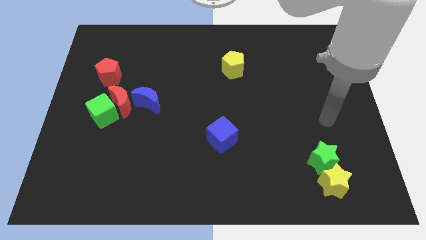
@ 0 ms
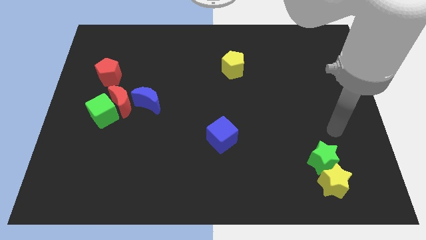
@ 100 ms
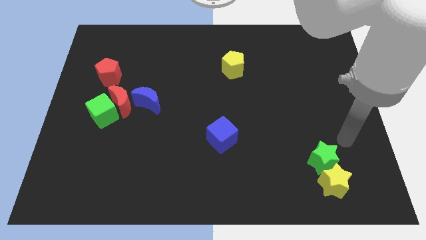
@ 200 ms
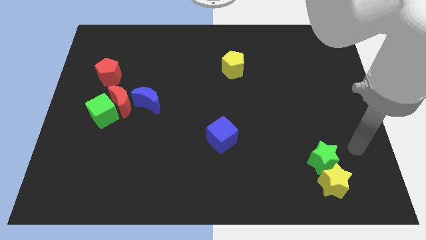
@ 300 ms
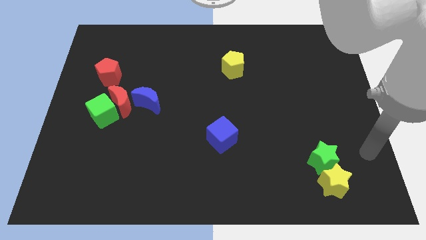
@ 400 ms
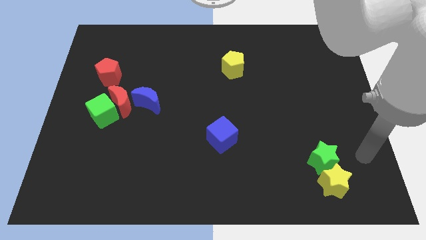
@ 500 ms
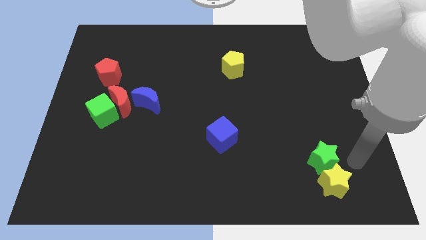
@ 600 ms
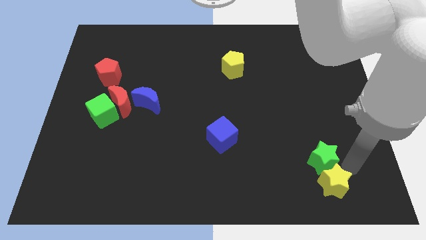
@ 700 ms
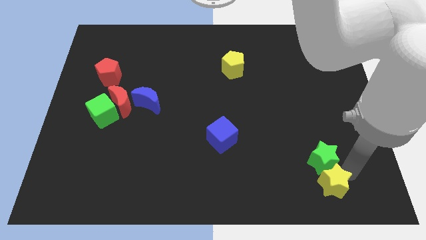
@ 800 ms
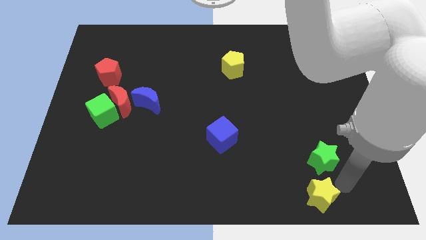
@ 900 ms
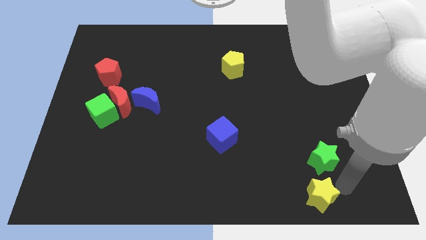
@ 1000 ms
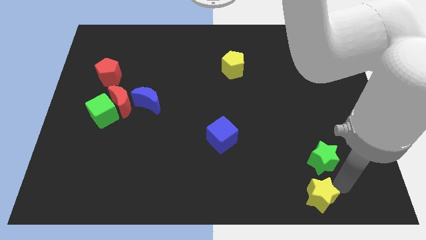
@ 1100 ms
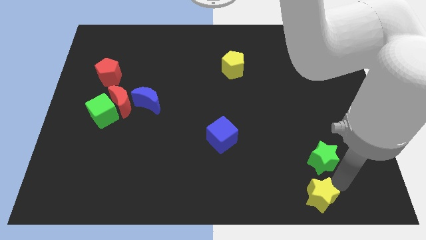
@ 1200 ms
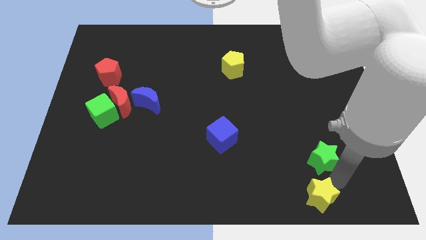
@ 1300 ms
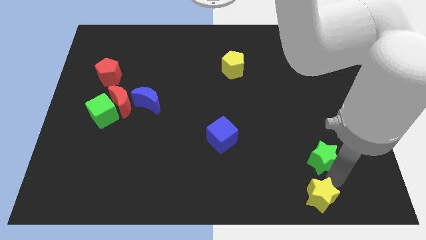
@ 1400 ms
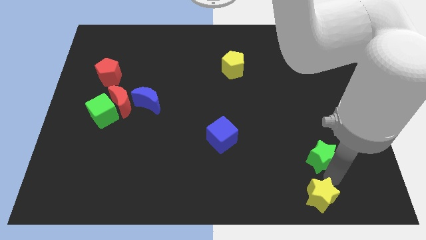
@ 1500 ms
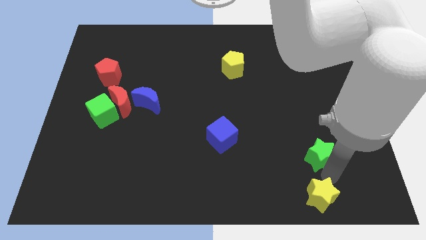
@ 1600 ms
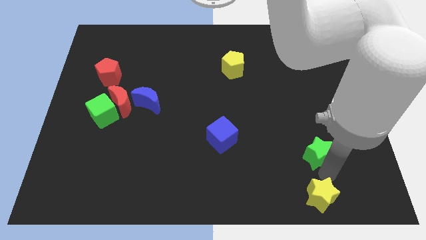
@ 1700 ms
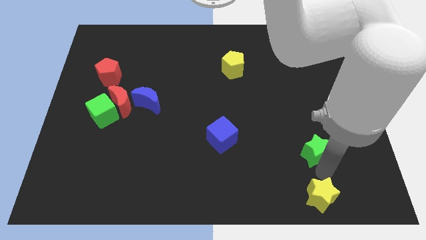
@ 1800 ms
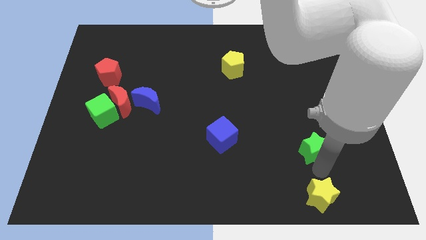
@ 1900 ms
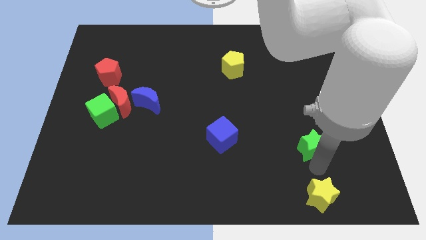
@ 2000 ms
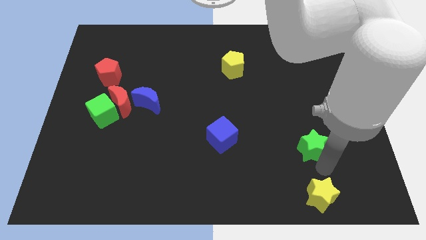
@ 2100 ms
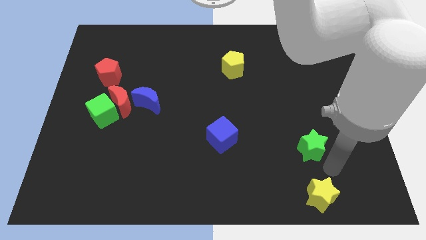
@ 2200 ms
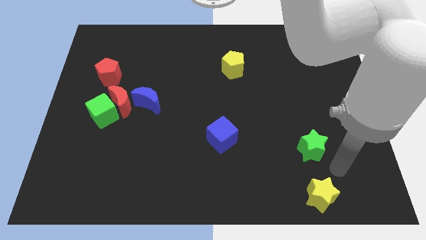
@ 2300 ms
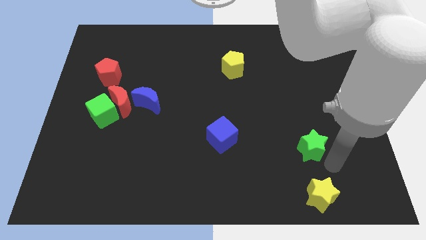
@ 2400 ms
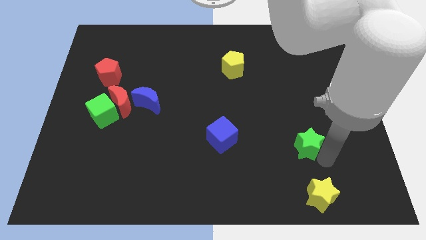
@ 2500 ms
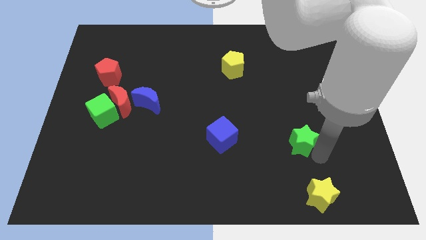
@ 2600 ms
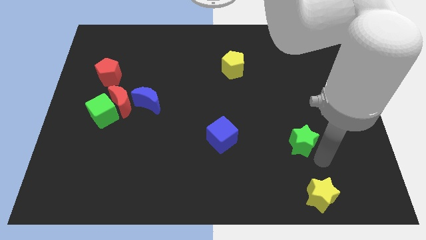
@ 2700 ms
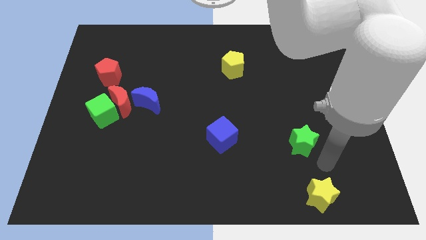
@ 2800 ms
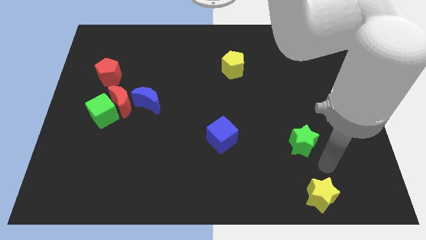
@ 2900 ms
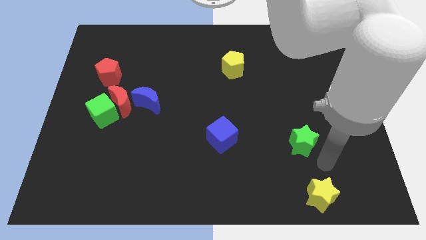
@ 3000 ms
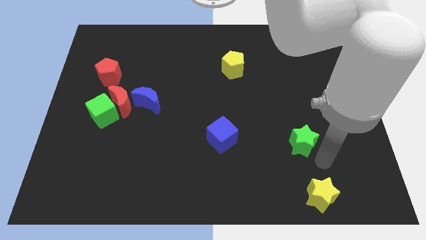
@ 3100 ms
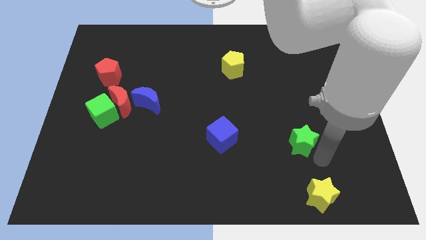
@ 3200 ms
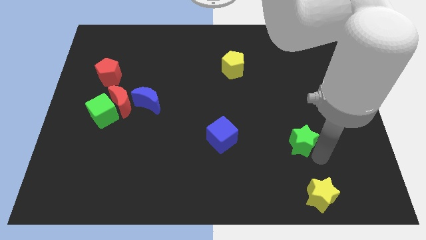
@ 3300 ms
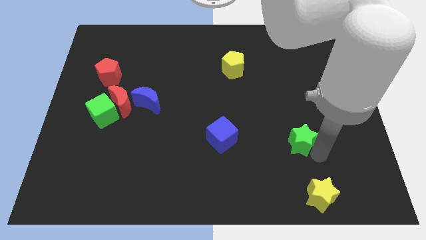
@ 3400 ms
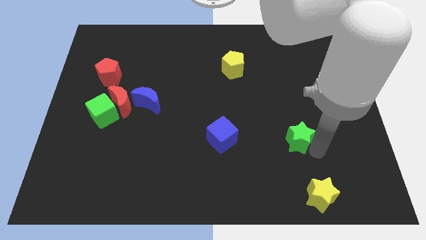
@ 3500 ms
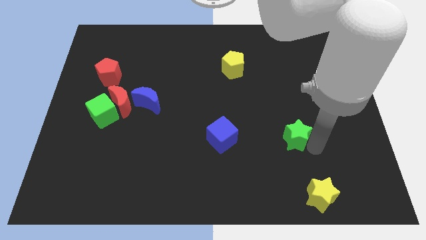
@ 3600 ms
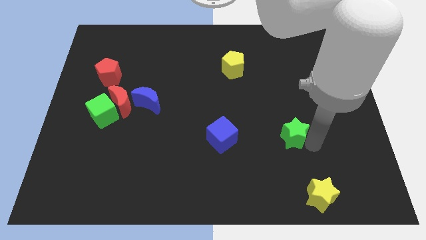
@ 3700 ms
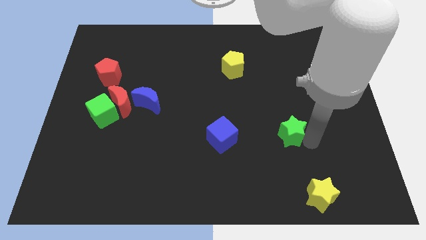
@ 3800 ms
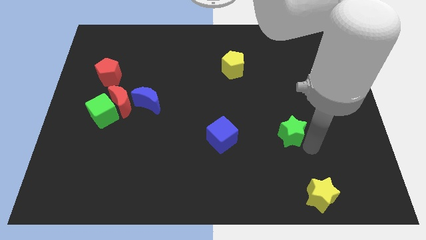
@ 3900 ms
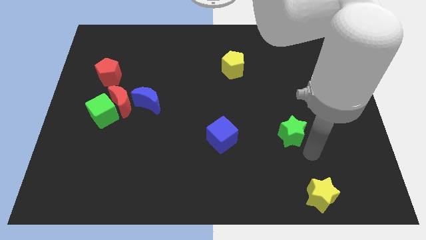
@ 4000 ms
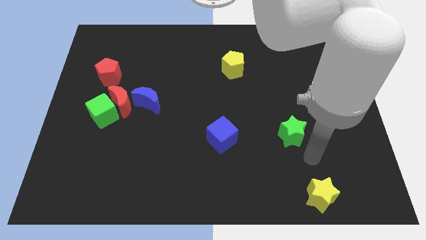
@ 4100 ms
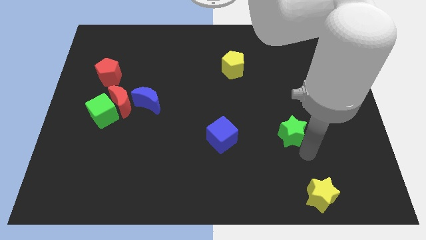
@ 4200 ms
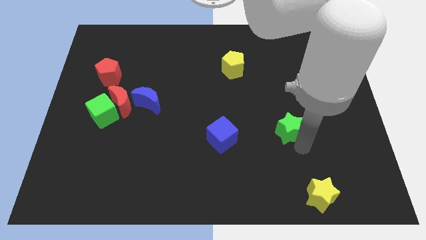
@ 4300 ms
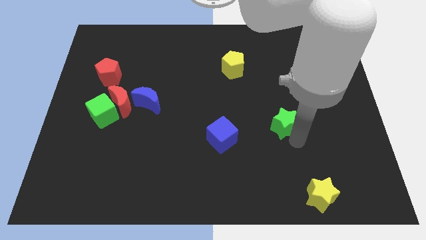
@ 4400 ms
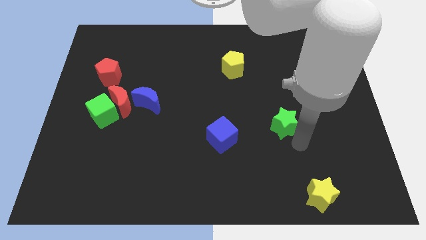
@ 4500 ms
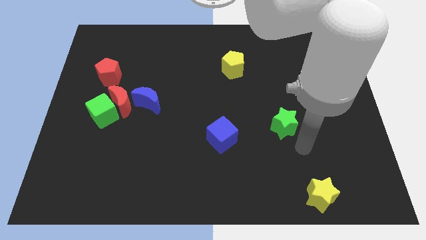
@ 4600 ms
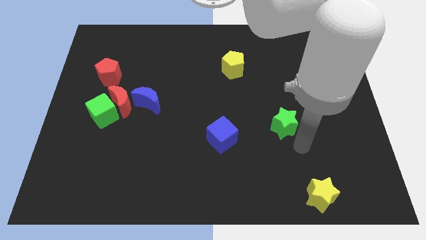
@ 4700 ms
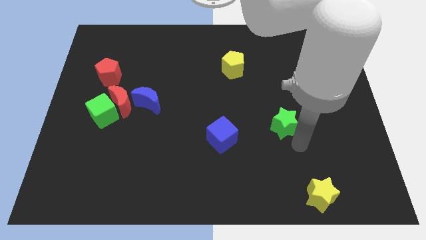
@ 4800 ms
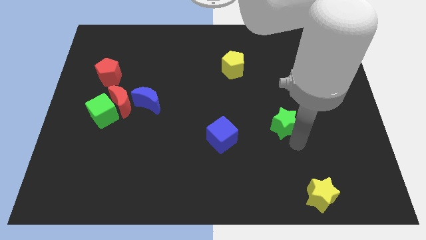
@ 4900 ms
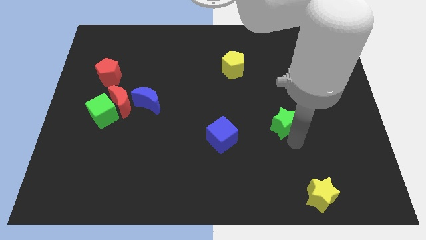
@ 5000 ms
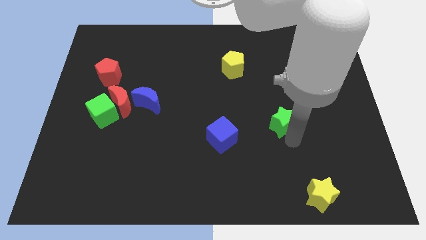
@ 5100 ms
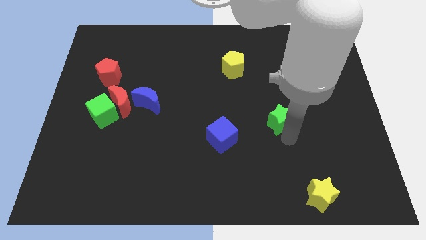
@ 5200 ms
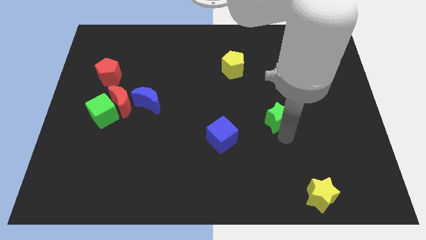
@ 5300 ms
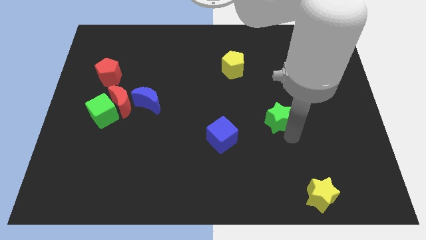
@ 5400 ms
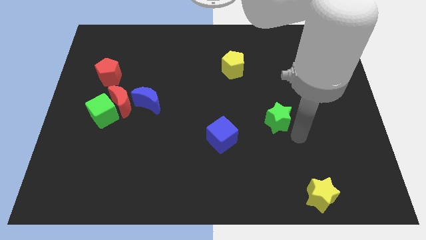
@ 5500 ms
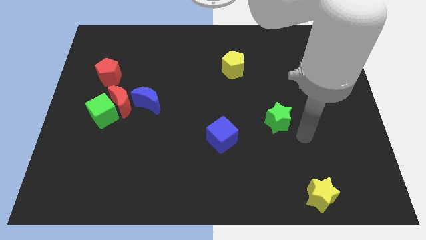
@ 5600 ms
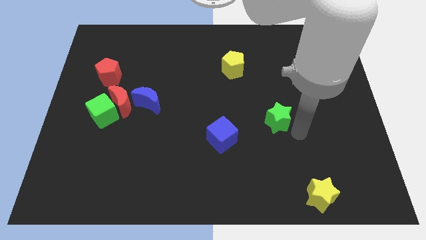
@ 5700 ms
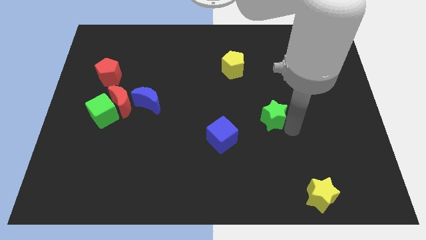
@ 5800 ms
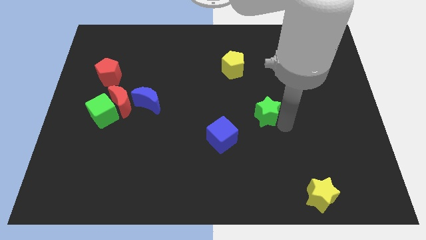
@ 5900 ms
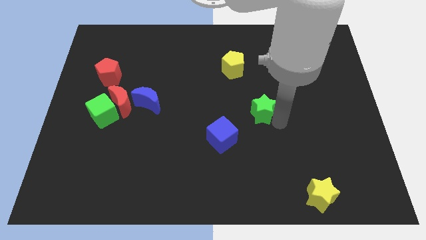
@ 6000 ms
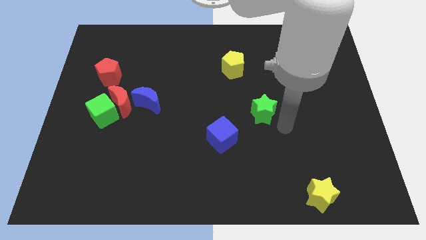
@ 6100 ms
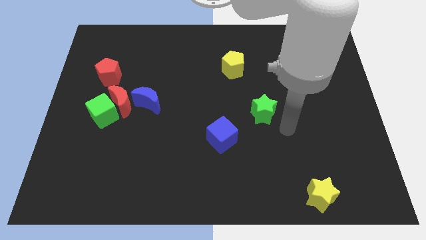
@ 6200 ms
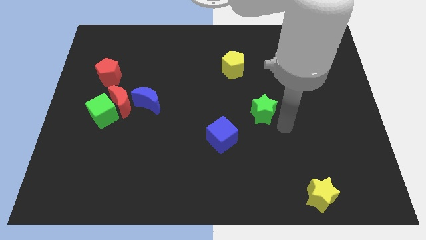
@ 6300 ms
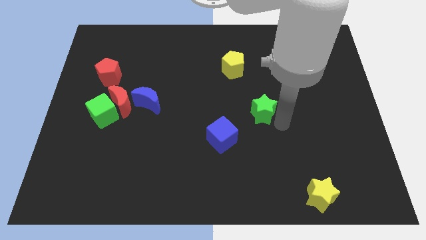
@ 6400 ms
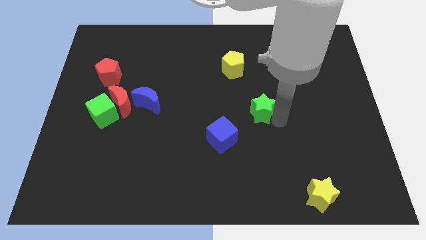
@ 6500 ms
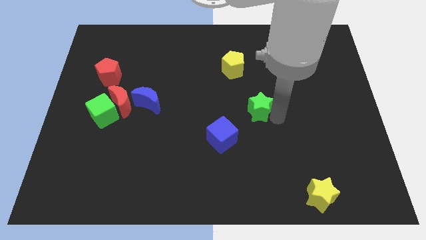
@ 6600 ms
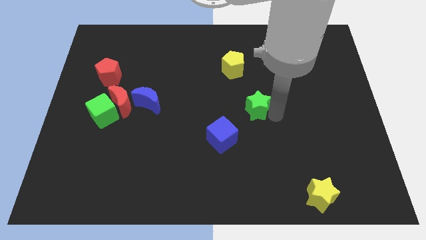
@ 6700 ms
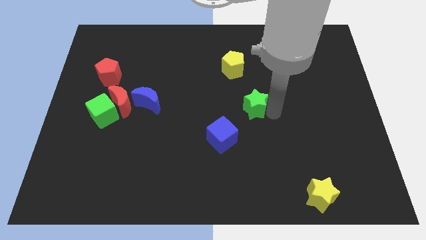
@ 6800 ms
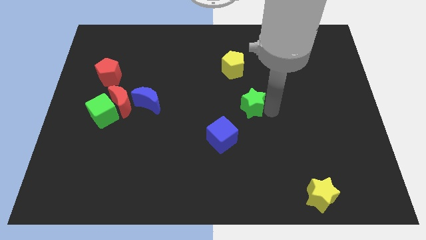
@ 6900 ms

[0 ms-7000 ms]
push the green star up and then to the left
